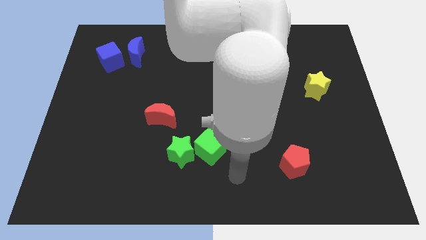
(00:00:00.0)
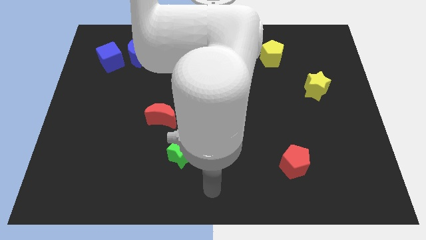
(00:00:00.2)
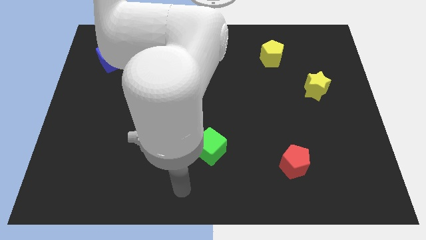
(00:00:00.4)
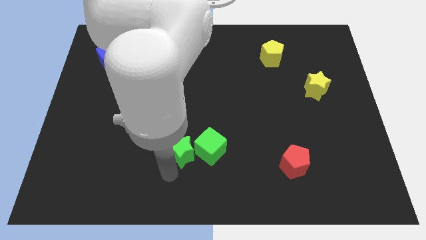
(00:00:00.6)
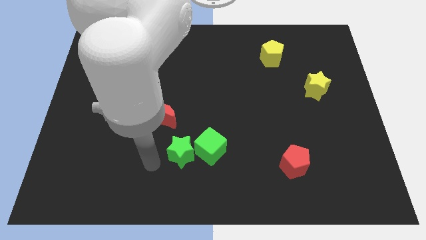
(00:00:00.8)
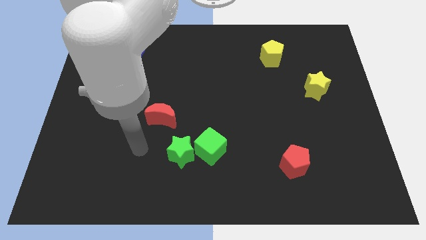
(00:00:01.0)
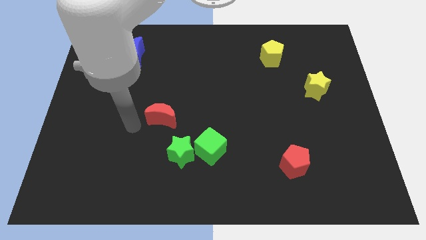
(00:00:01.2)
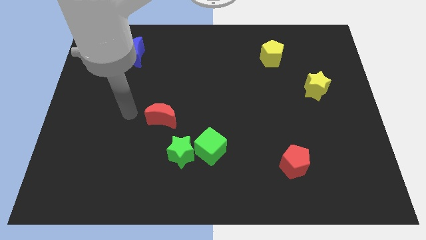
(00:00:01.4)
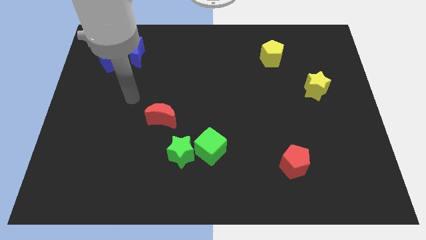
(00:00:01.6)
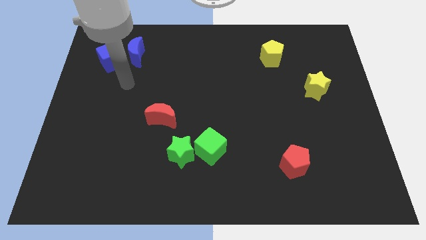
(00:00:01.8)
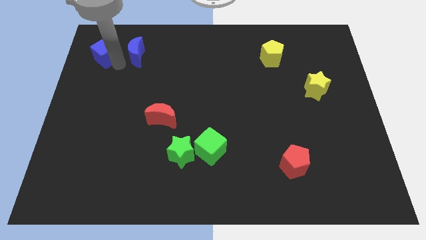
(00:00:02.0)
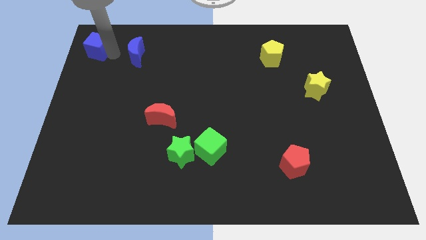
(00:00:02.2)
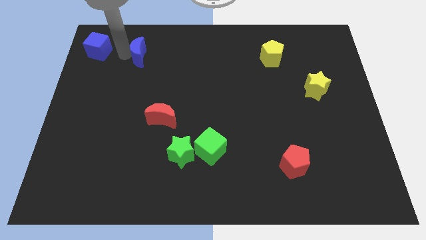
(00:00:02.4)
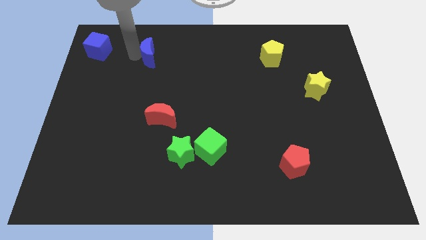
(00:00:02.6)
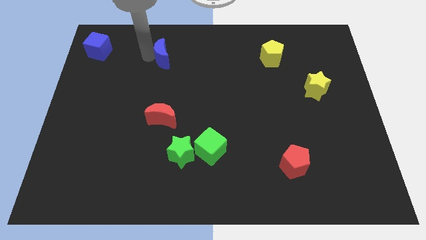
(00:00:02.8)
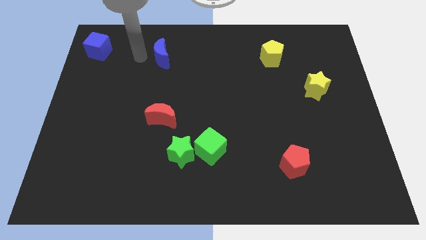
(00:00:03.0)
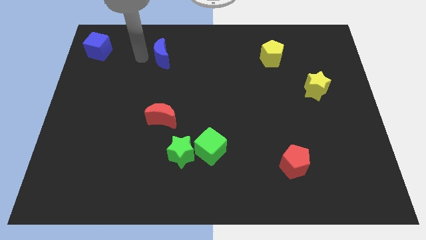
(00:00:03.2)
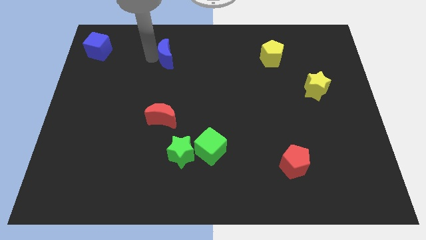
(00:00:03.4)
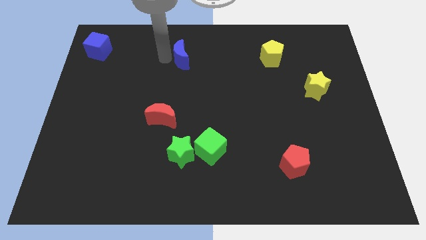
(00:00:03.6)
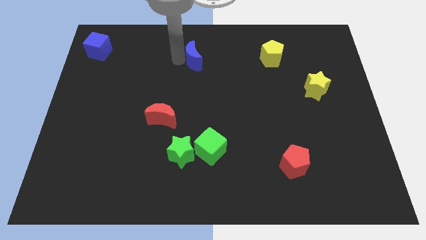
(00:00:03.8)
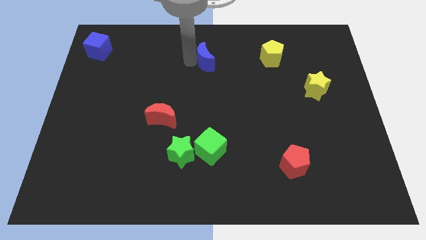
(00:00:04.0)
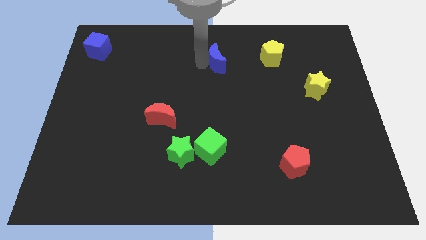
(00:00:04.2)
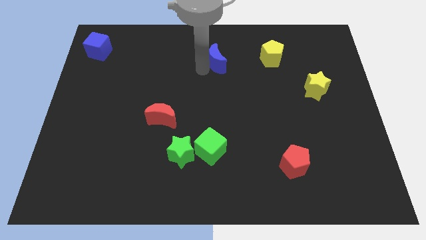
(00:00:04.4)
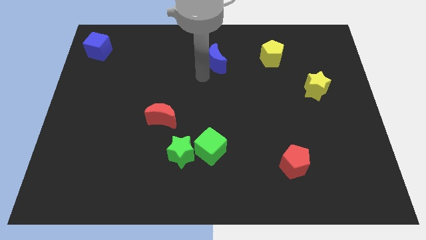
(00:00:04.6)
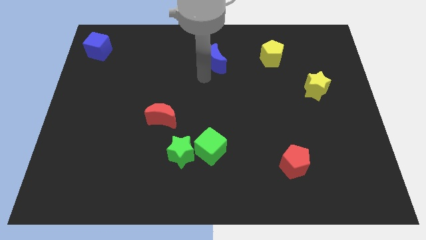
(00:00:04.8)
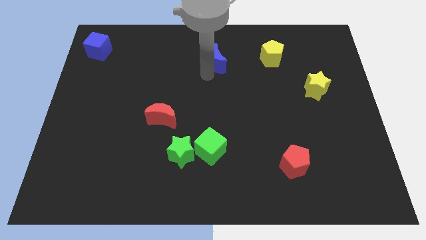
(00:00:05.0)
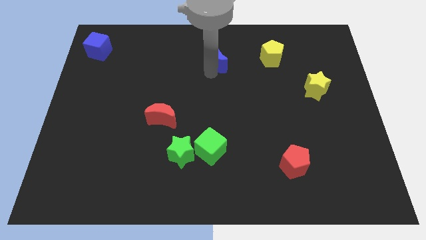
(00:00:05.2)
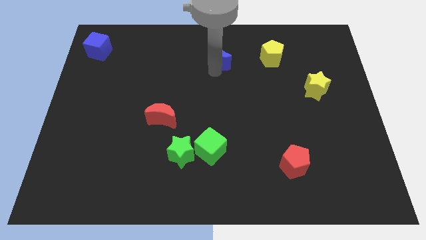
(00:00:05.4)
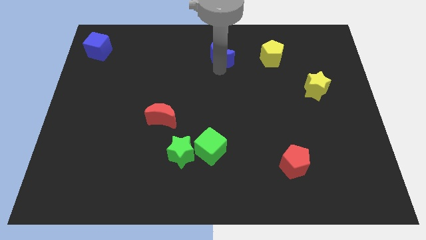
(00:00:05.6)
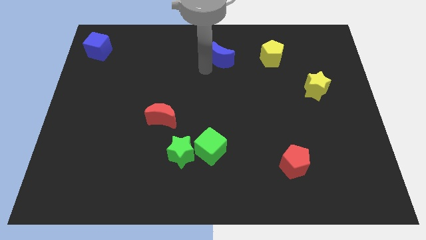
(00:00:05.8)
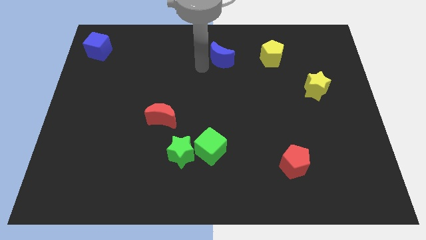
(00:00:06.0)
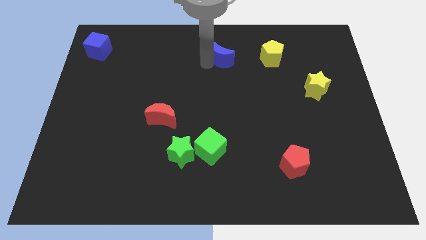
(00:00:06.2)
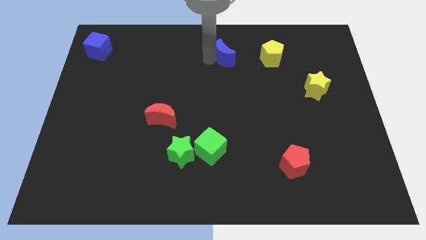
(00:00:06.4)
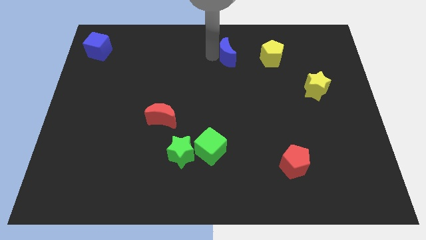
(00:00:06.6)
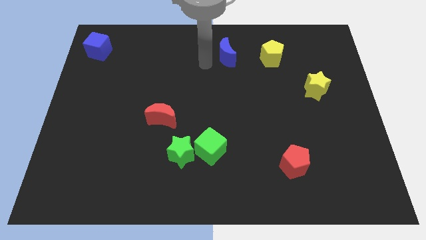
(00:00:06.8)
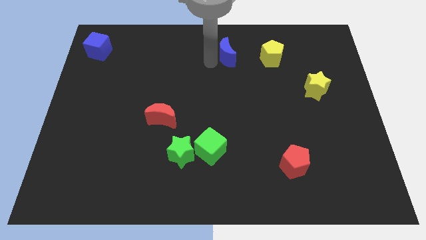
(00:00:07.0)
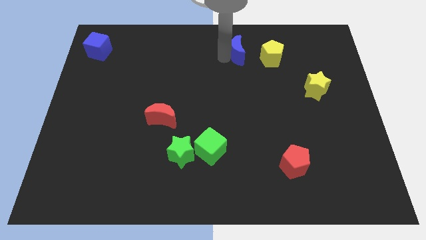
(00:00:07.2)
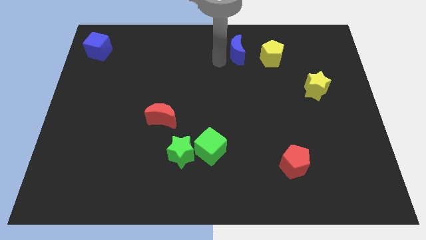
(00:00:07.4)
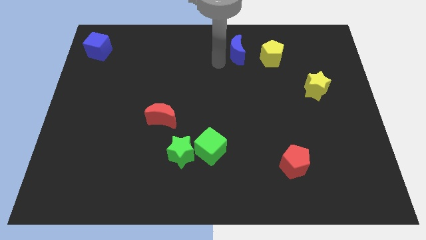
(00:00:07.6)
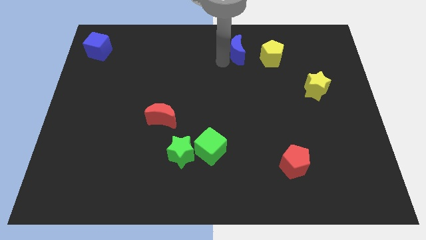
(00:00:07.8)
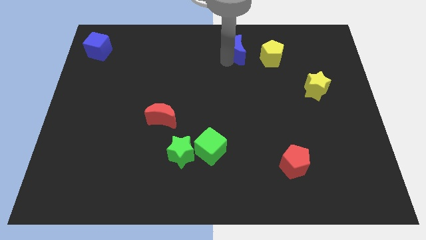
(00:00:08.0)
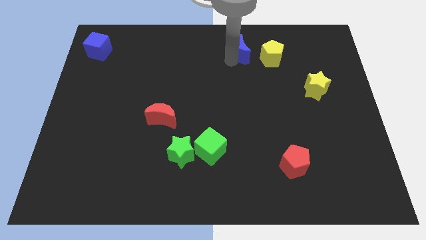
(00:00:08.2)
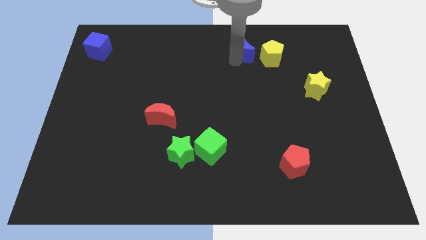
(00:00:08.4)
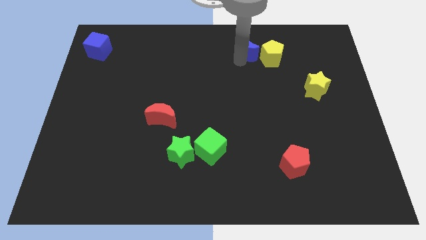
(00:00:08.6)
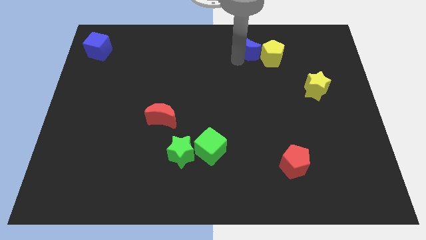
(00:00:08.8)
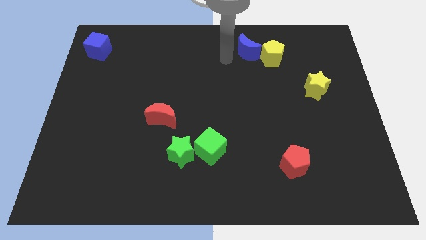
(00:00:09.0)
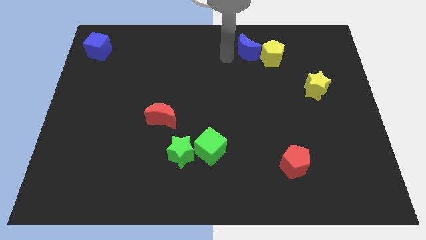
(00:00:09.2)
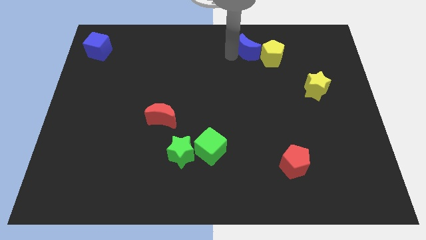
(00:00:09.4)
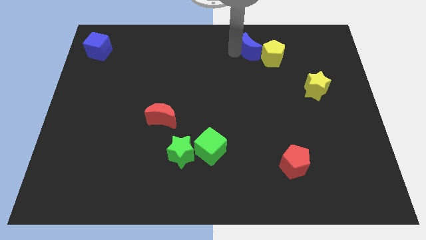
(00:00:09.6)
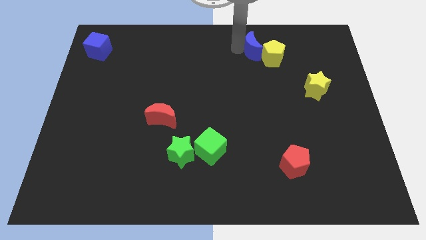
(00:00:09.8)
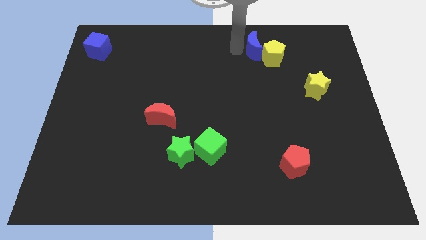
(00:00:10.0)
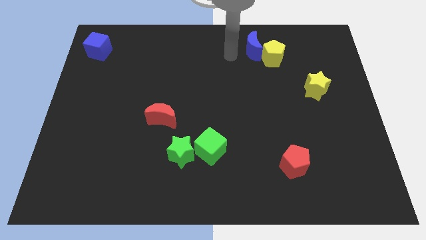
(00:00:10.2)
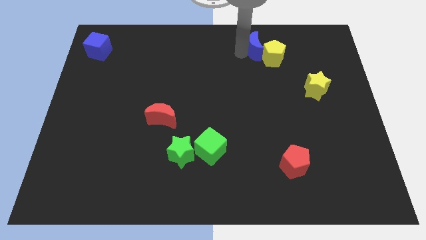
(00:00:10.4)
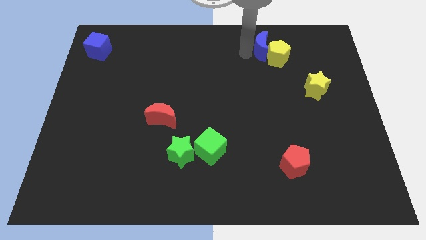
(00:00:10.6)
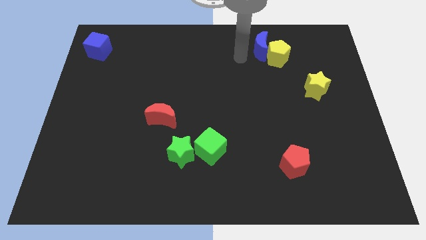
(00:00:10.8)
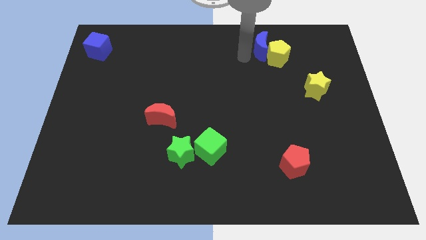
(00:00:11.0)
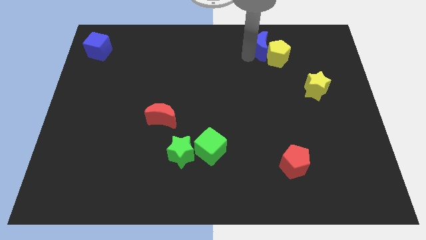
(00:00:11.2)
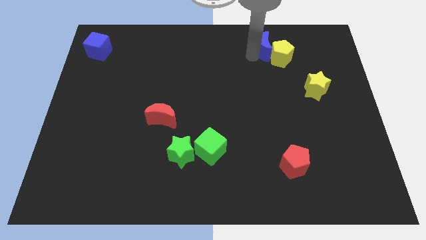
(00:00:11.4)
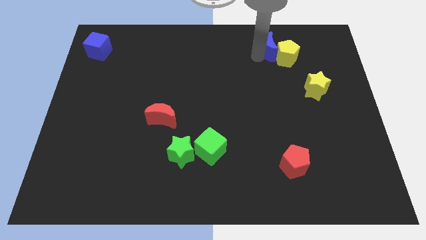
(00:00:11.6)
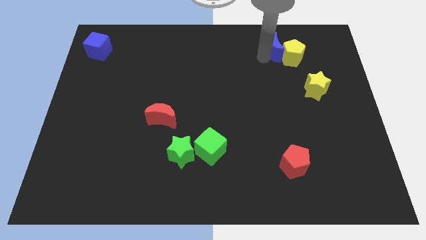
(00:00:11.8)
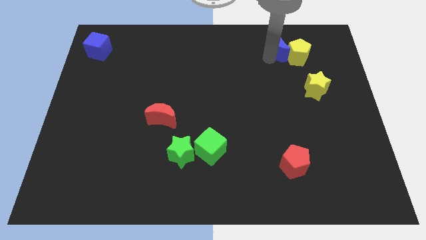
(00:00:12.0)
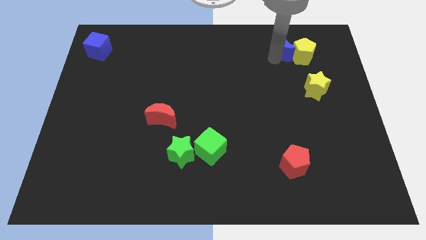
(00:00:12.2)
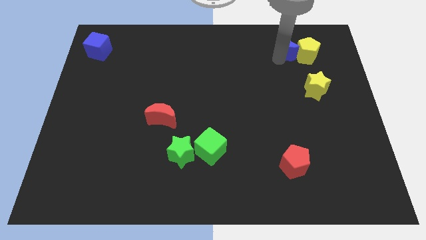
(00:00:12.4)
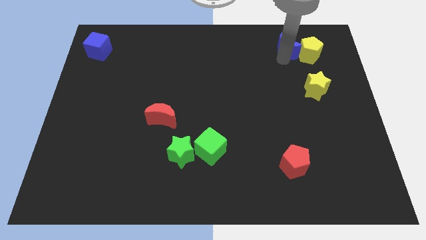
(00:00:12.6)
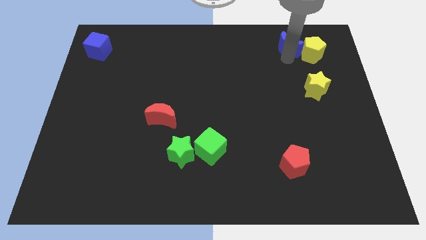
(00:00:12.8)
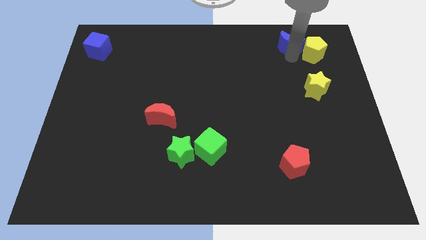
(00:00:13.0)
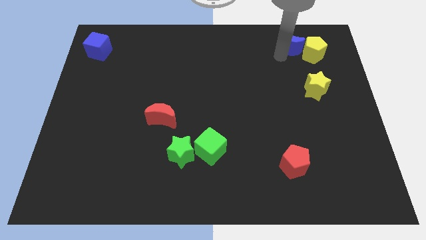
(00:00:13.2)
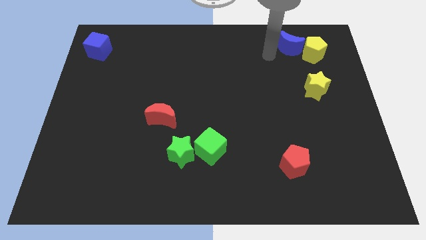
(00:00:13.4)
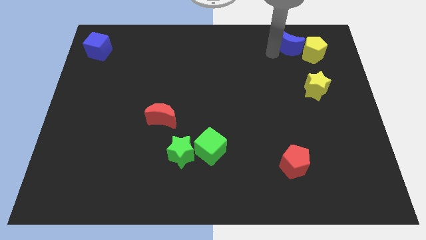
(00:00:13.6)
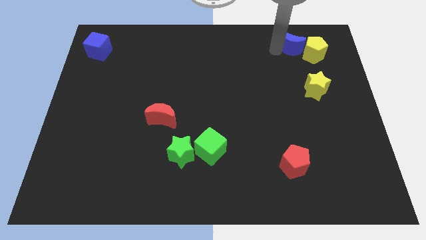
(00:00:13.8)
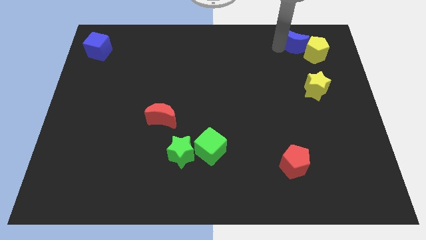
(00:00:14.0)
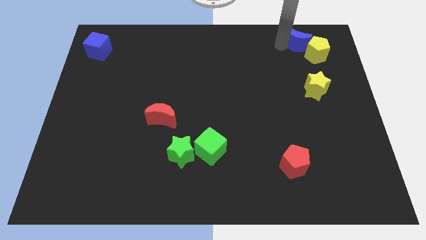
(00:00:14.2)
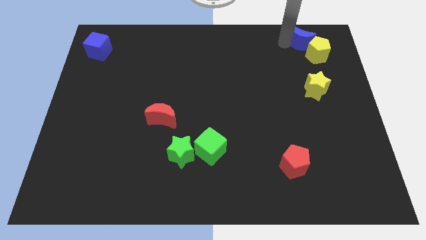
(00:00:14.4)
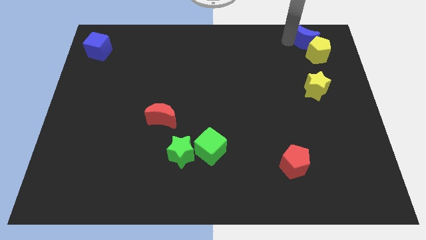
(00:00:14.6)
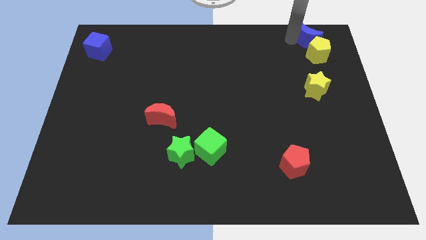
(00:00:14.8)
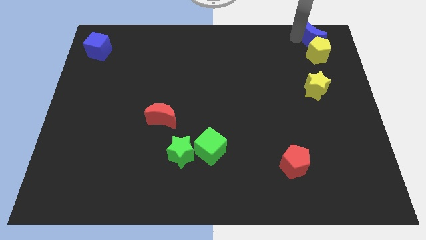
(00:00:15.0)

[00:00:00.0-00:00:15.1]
push the blue moon to the top right of the board
